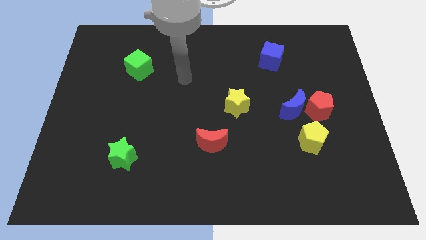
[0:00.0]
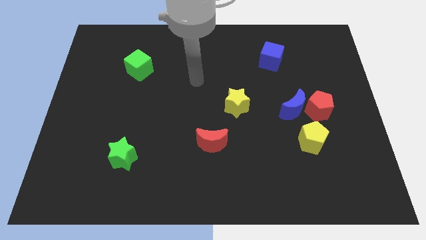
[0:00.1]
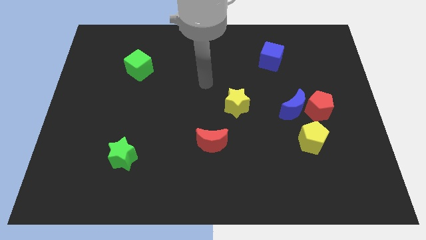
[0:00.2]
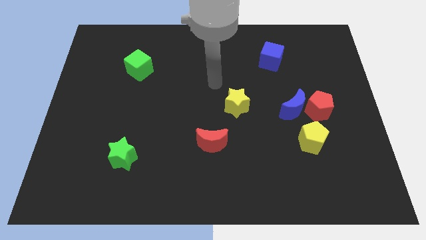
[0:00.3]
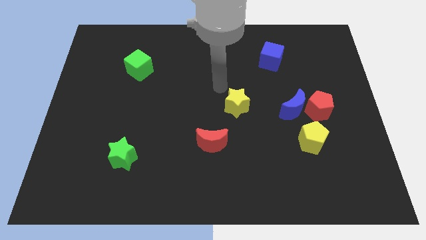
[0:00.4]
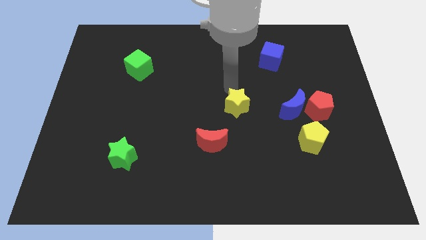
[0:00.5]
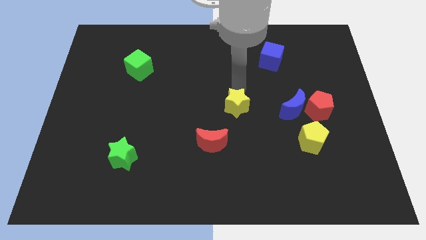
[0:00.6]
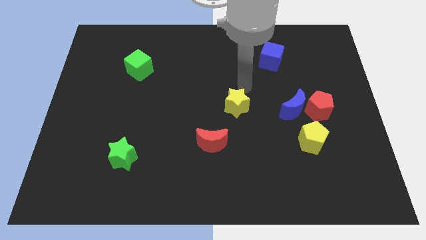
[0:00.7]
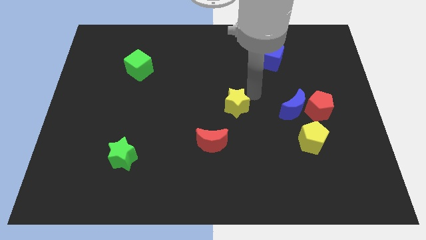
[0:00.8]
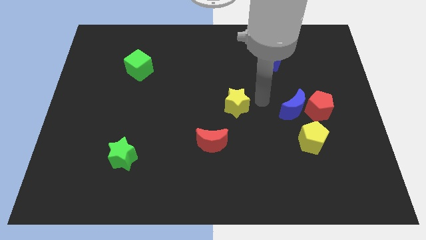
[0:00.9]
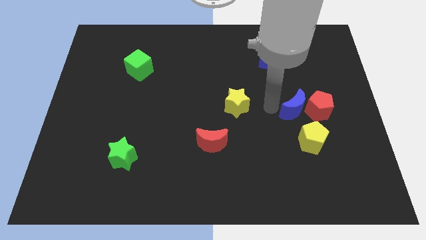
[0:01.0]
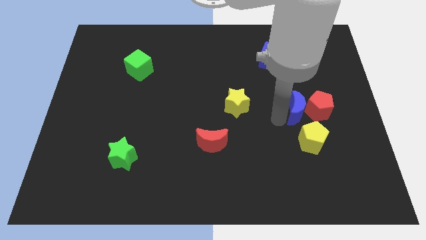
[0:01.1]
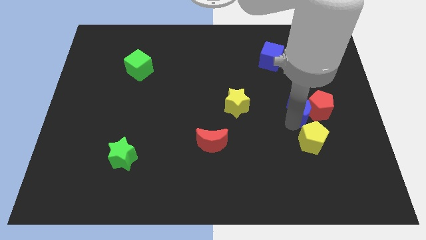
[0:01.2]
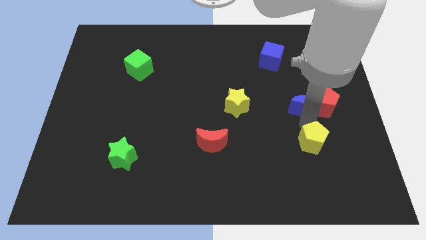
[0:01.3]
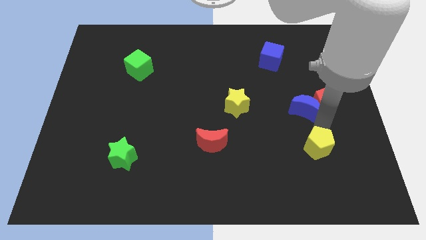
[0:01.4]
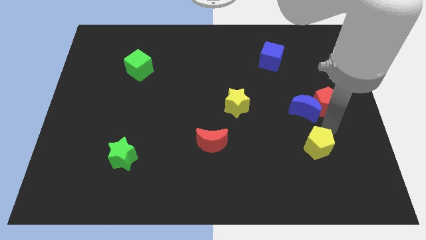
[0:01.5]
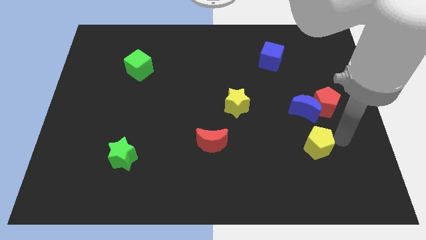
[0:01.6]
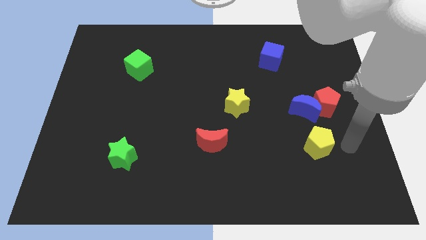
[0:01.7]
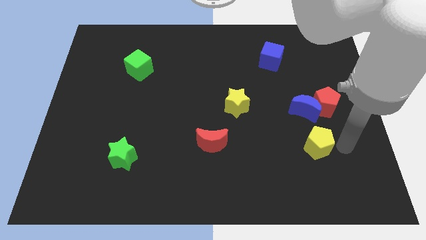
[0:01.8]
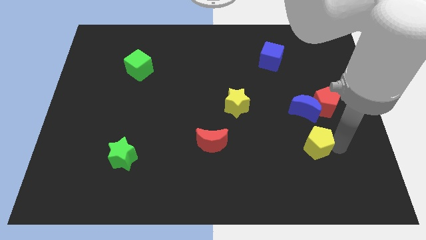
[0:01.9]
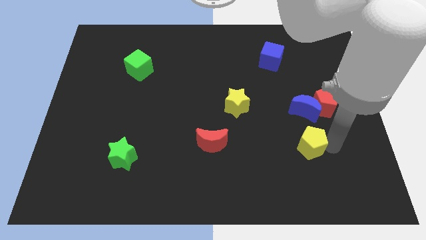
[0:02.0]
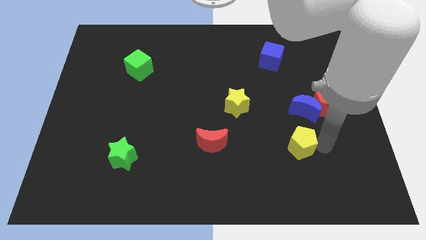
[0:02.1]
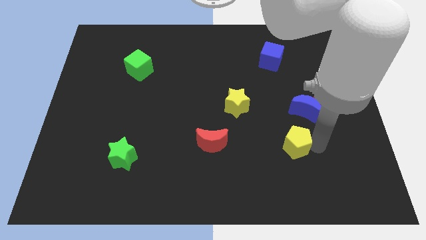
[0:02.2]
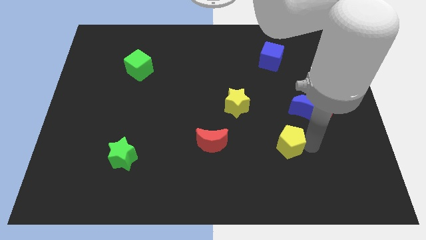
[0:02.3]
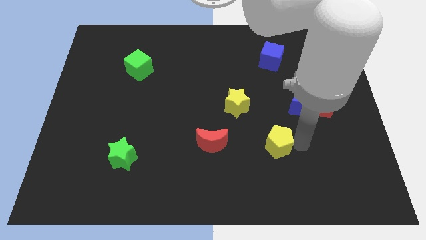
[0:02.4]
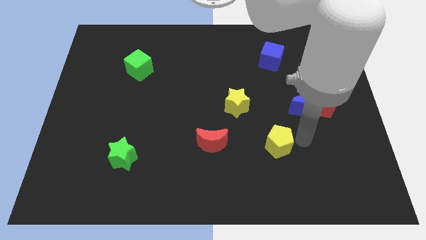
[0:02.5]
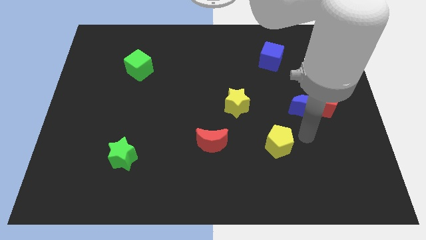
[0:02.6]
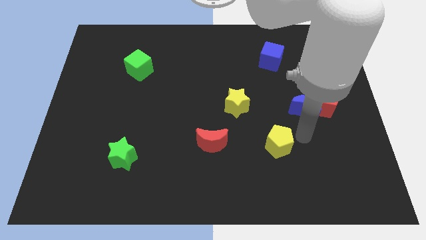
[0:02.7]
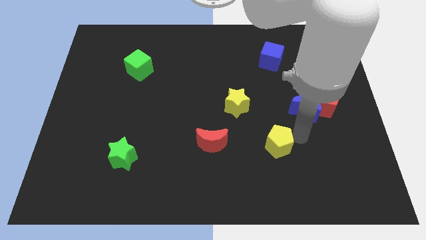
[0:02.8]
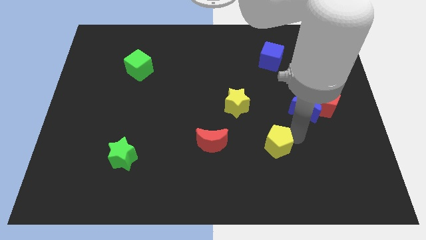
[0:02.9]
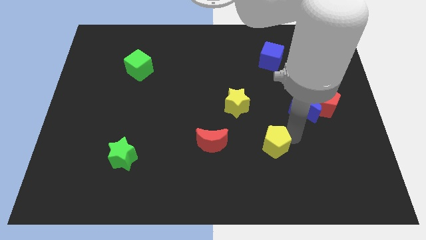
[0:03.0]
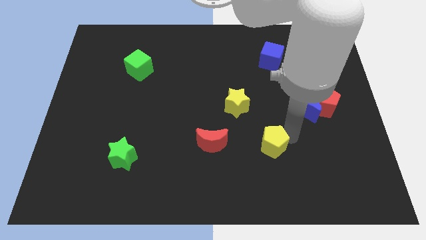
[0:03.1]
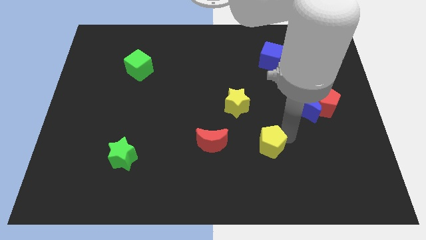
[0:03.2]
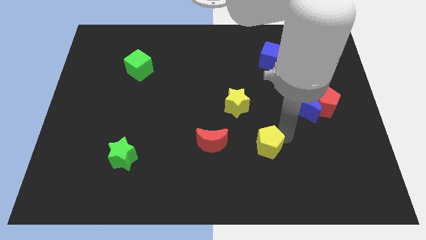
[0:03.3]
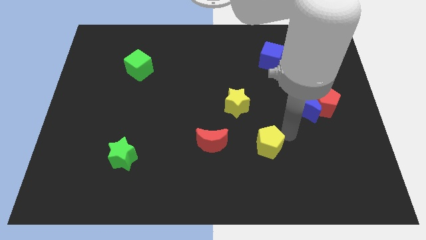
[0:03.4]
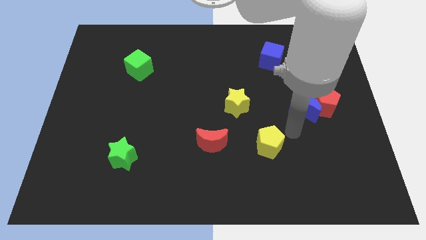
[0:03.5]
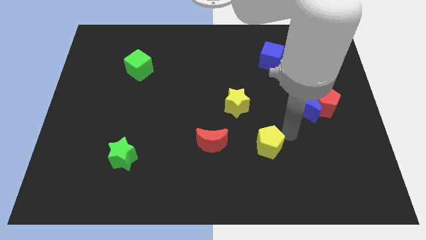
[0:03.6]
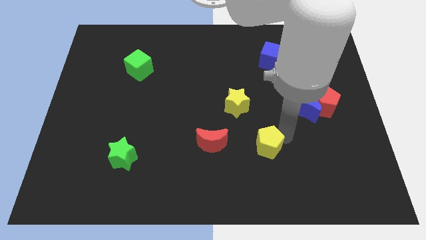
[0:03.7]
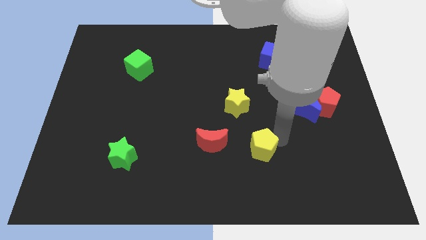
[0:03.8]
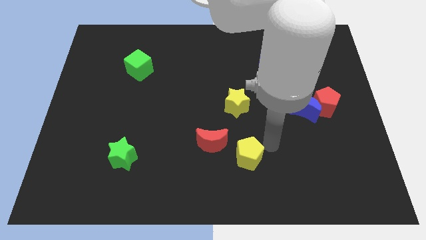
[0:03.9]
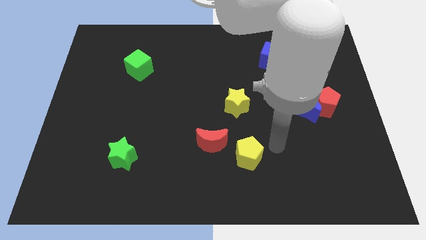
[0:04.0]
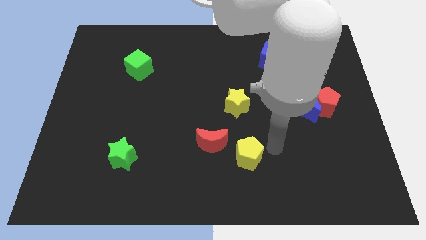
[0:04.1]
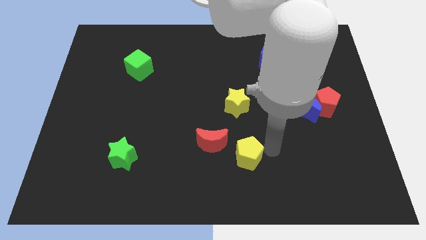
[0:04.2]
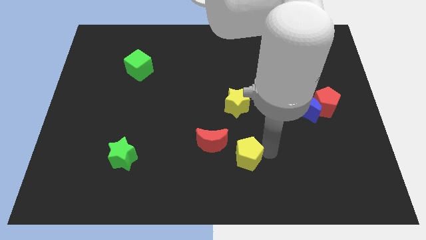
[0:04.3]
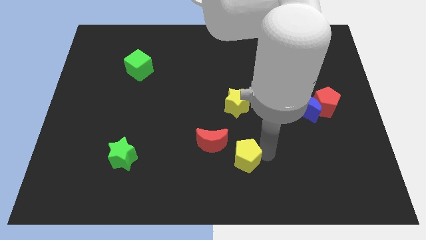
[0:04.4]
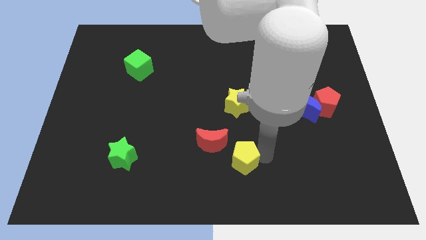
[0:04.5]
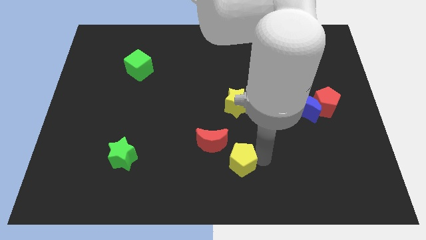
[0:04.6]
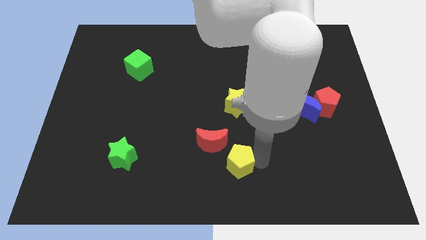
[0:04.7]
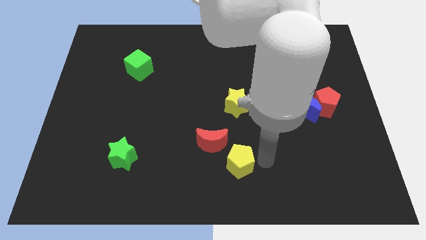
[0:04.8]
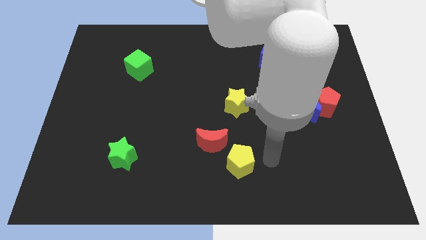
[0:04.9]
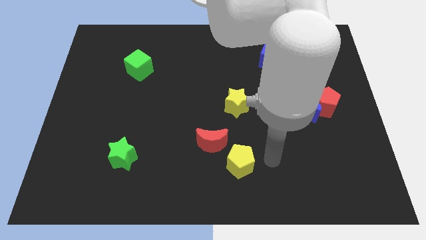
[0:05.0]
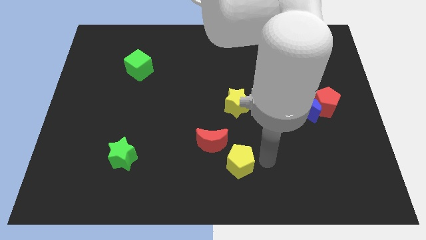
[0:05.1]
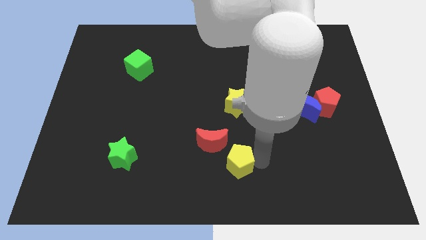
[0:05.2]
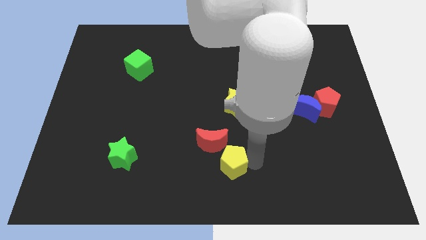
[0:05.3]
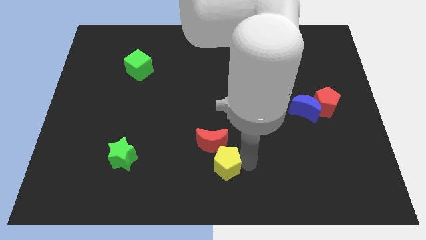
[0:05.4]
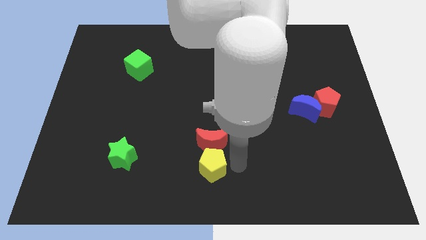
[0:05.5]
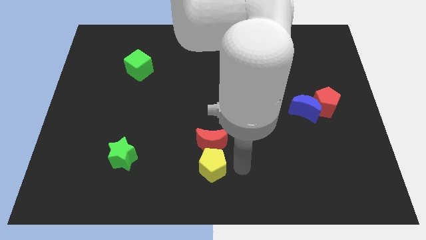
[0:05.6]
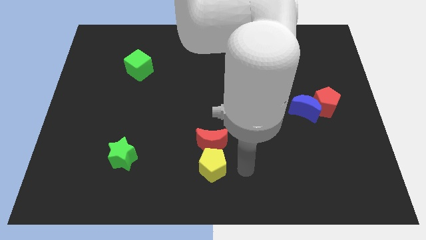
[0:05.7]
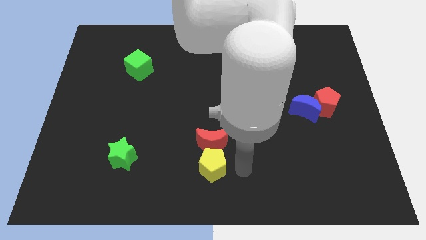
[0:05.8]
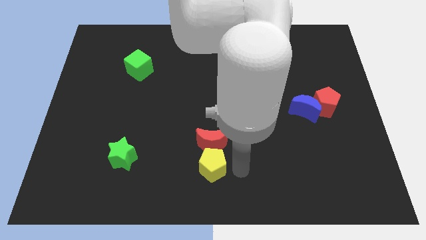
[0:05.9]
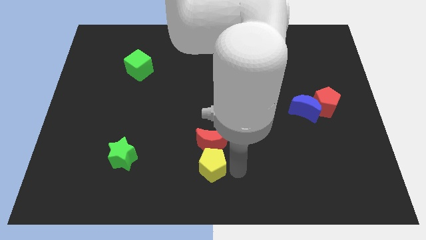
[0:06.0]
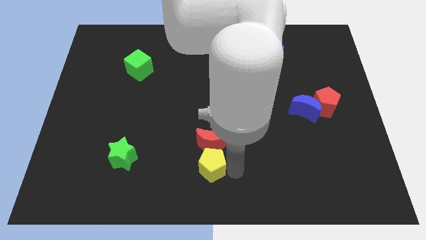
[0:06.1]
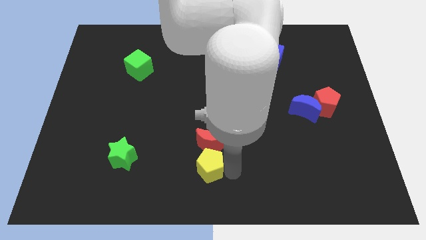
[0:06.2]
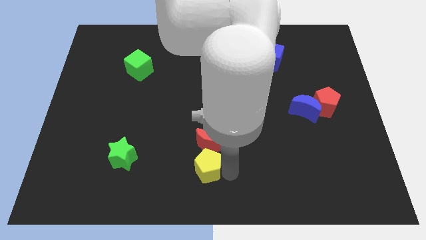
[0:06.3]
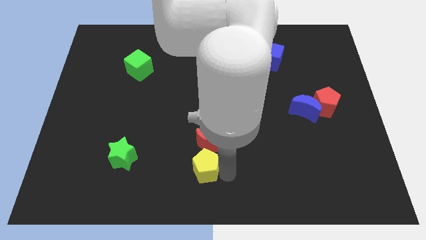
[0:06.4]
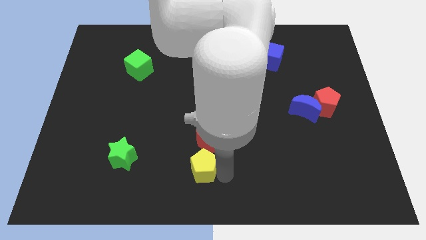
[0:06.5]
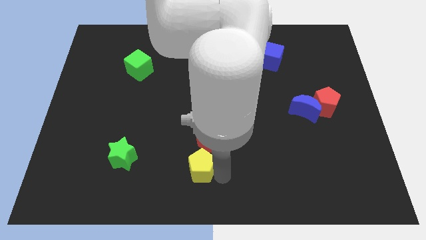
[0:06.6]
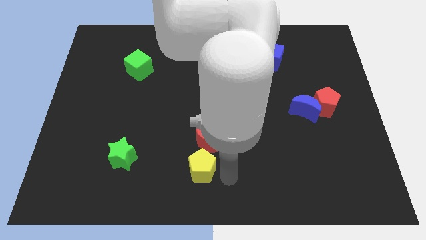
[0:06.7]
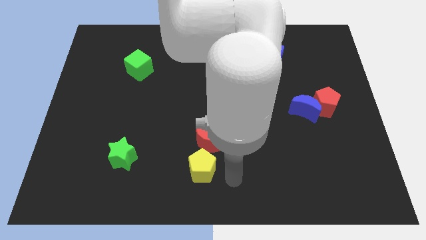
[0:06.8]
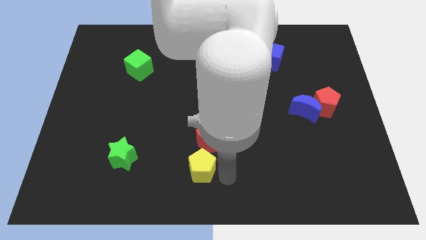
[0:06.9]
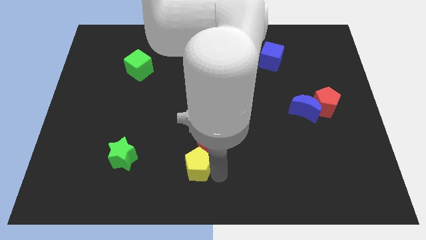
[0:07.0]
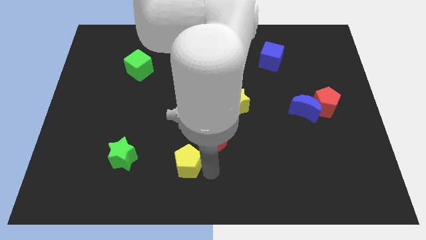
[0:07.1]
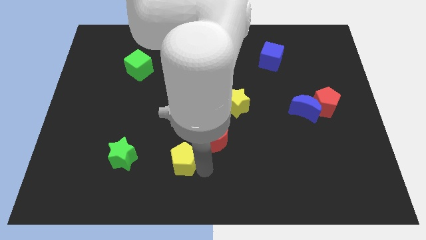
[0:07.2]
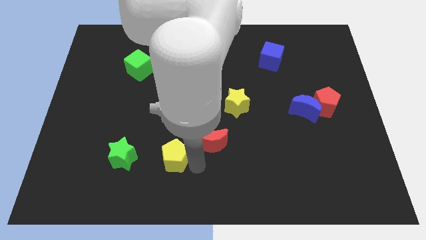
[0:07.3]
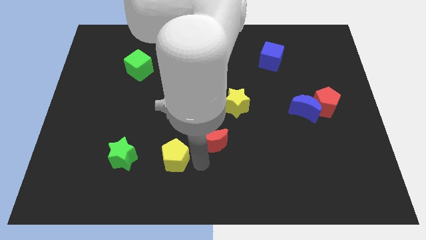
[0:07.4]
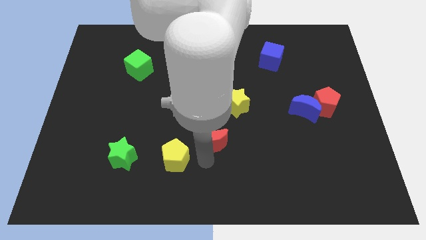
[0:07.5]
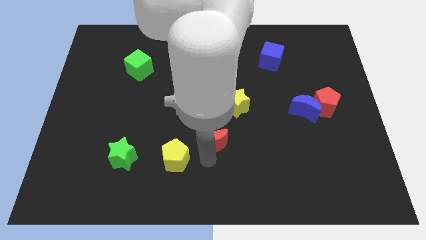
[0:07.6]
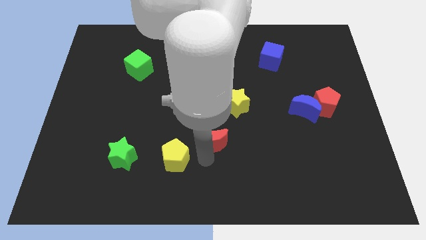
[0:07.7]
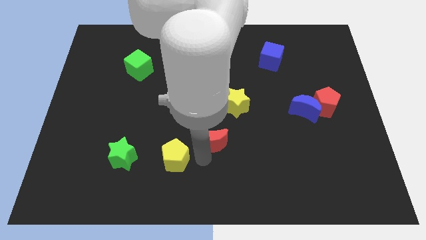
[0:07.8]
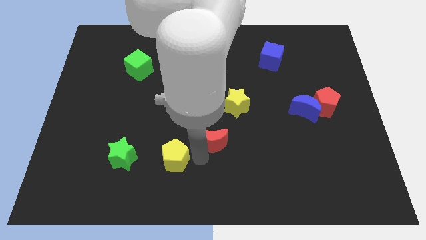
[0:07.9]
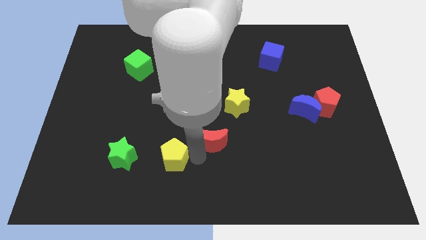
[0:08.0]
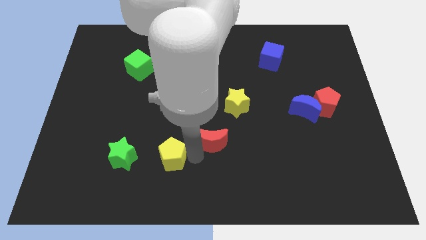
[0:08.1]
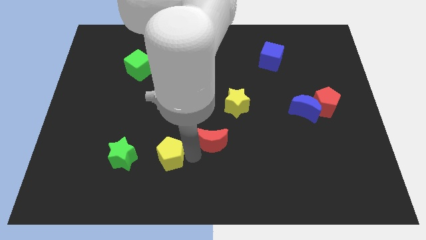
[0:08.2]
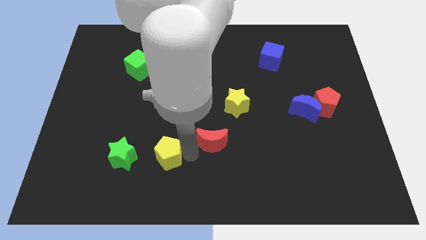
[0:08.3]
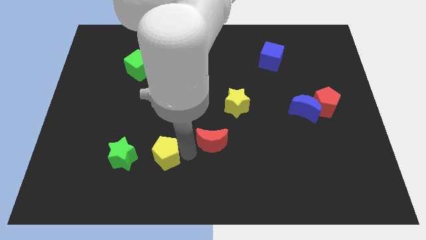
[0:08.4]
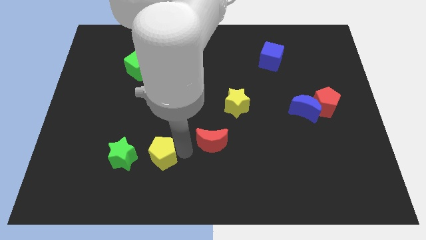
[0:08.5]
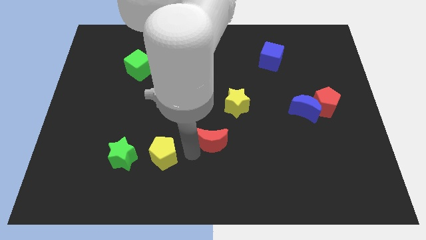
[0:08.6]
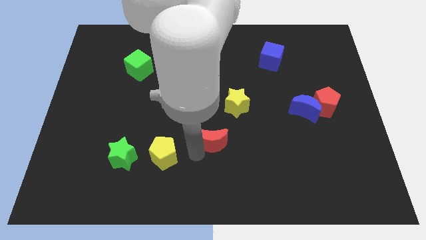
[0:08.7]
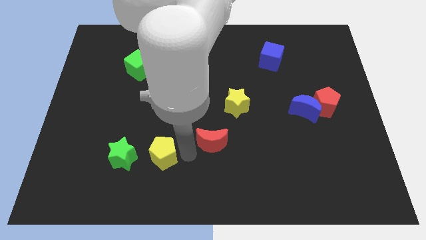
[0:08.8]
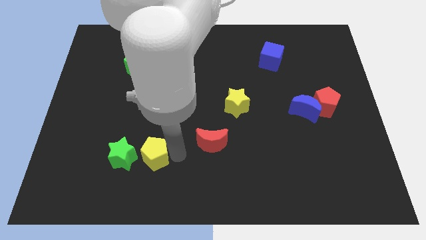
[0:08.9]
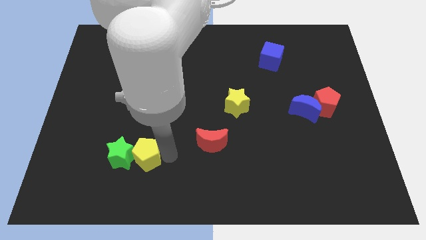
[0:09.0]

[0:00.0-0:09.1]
move the yellow pentagon to the green star
